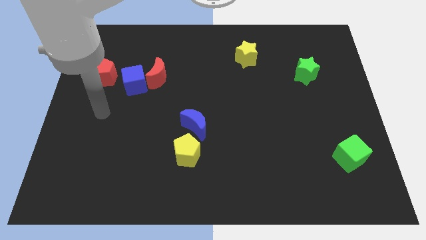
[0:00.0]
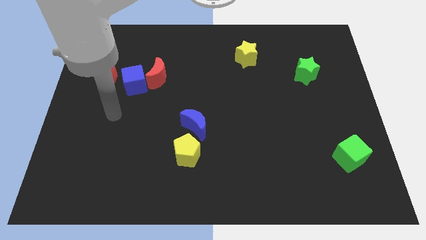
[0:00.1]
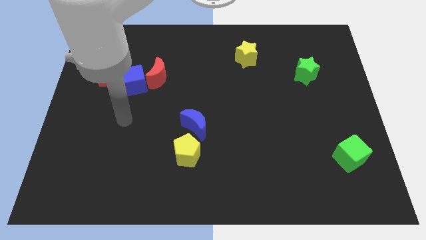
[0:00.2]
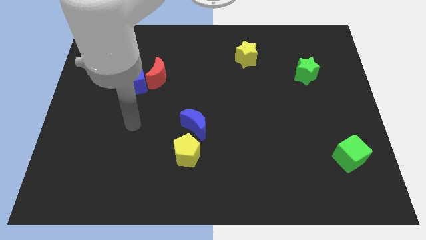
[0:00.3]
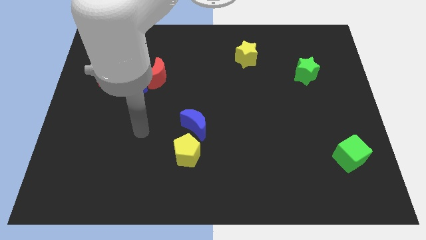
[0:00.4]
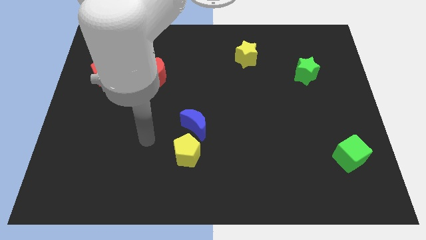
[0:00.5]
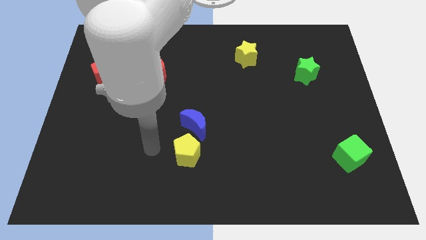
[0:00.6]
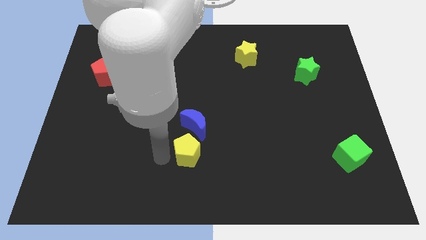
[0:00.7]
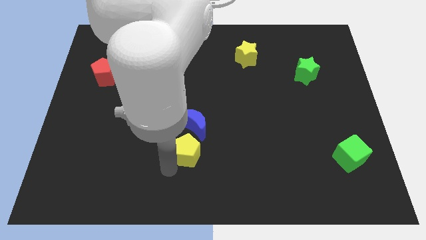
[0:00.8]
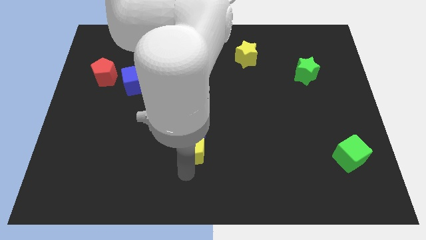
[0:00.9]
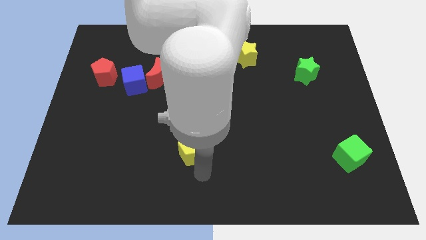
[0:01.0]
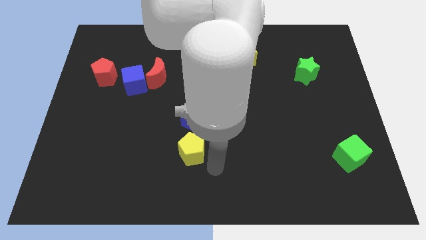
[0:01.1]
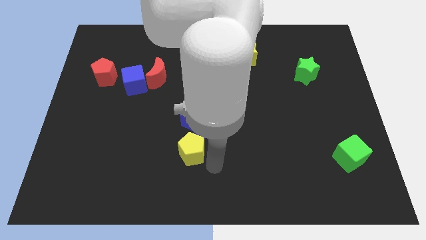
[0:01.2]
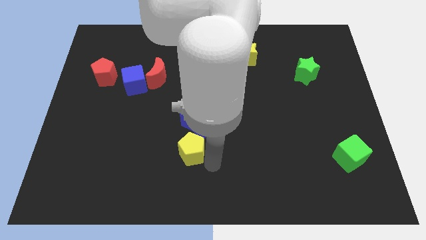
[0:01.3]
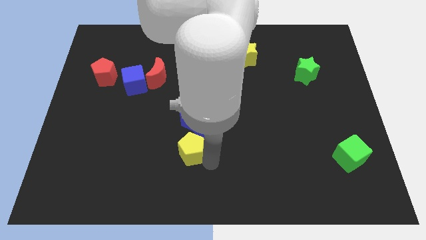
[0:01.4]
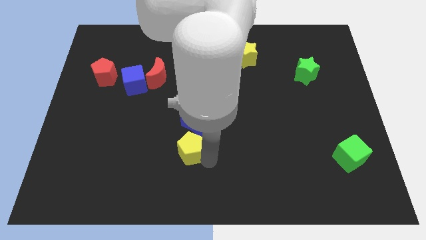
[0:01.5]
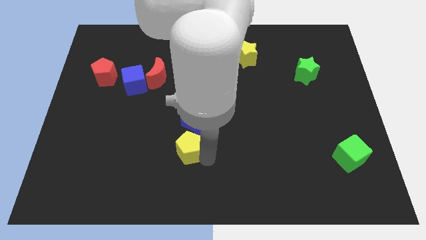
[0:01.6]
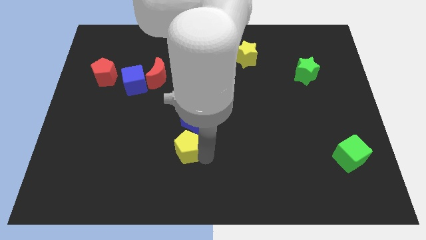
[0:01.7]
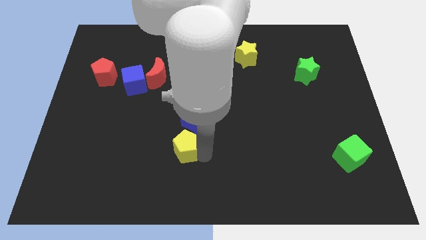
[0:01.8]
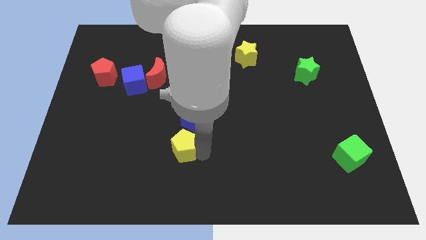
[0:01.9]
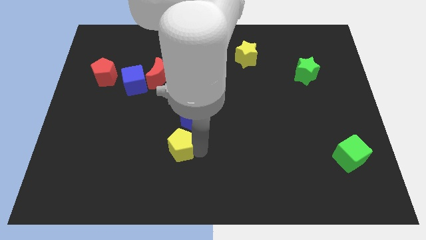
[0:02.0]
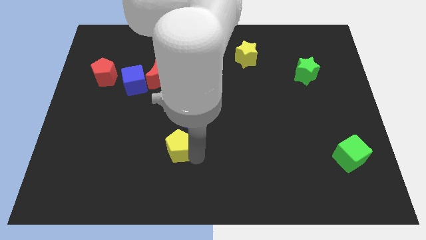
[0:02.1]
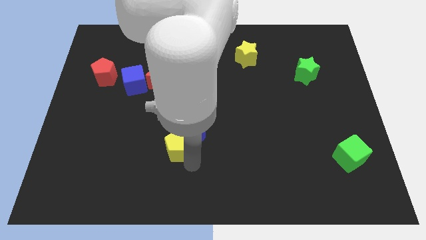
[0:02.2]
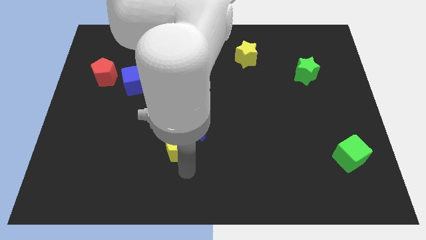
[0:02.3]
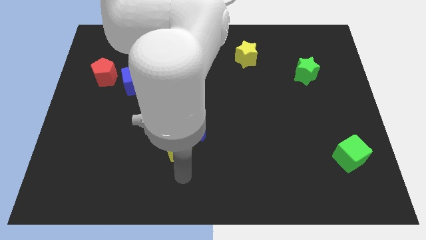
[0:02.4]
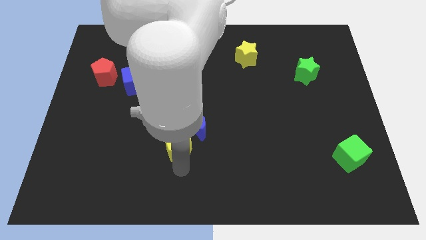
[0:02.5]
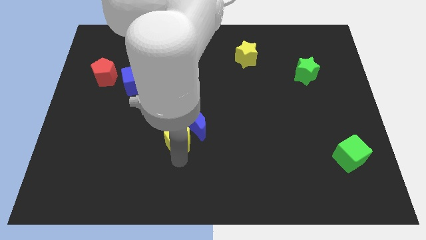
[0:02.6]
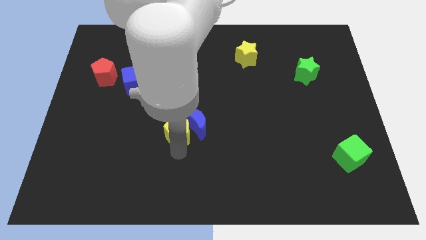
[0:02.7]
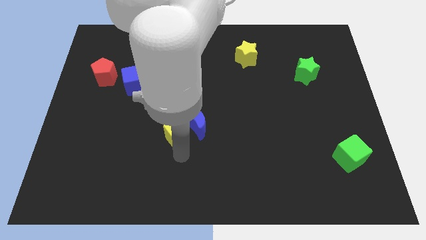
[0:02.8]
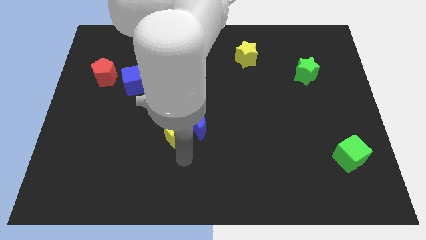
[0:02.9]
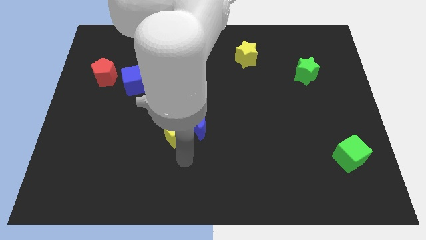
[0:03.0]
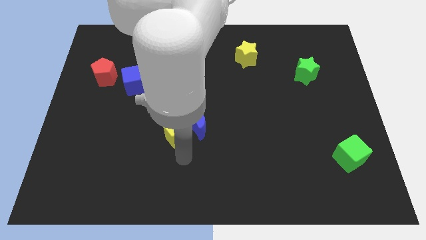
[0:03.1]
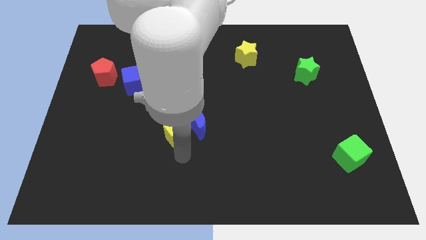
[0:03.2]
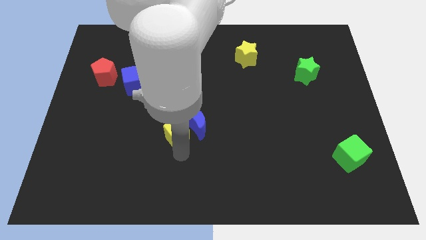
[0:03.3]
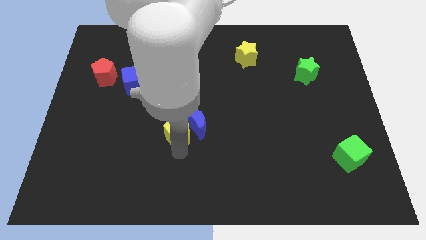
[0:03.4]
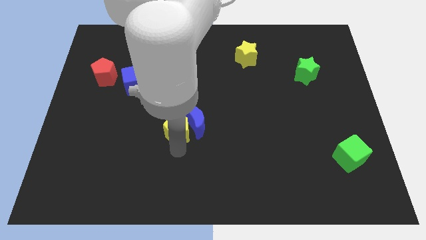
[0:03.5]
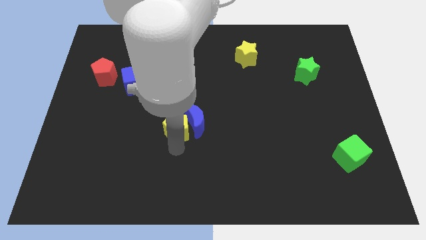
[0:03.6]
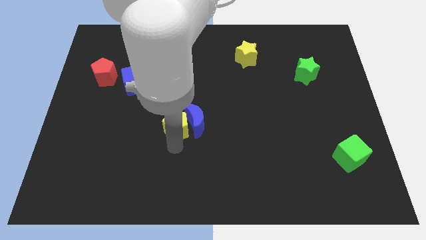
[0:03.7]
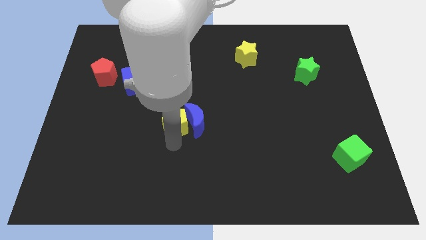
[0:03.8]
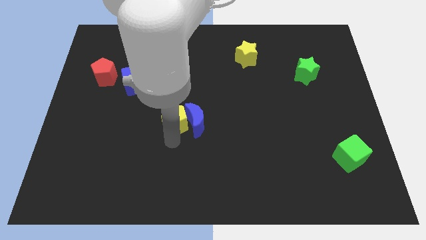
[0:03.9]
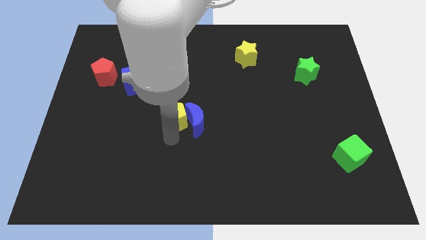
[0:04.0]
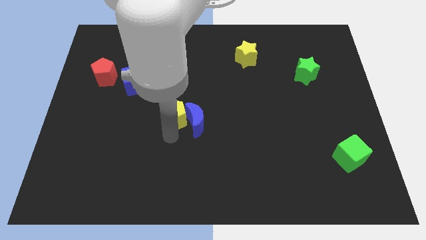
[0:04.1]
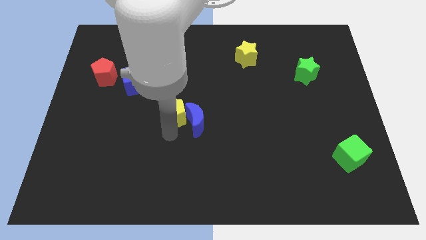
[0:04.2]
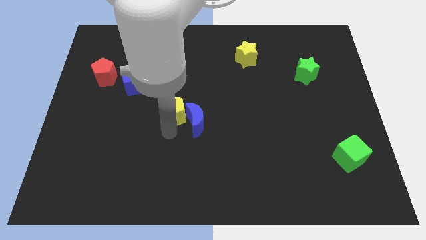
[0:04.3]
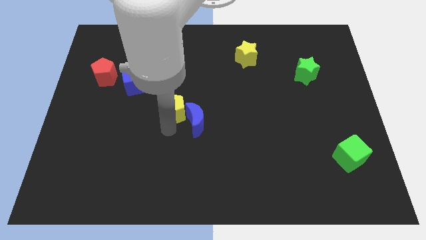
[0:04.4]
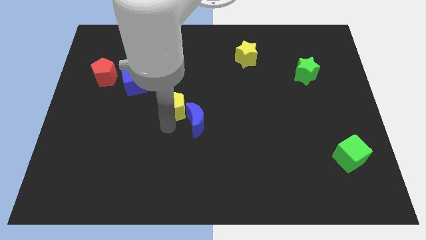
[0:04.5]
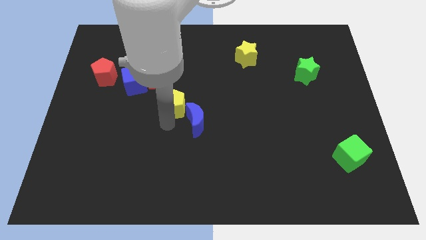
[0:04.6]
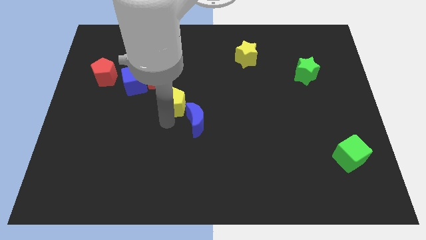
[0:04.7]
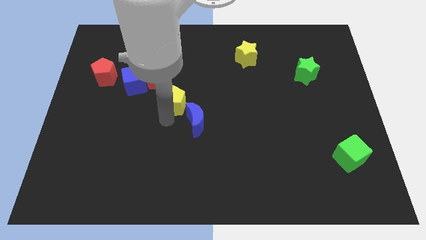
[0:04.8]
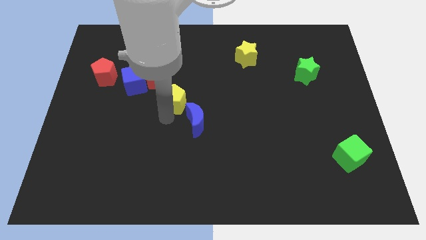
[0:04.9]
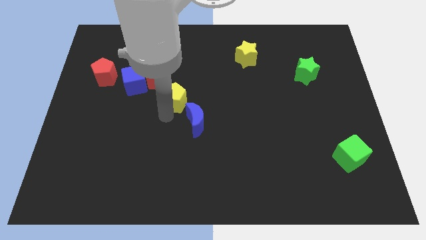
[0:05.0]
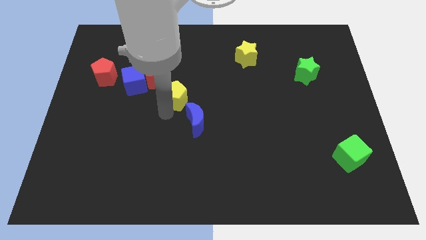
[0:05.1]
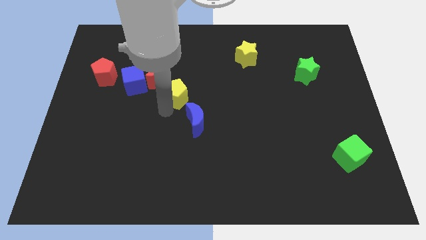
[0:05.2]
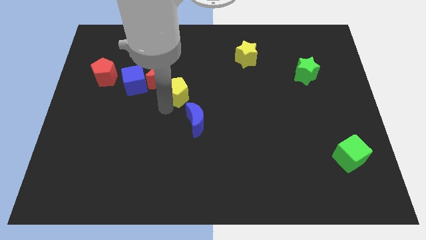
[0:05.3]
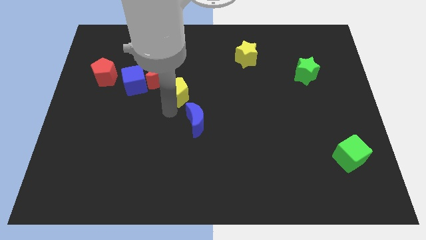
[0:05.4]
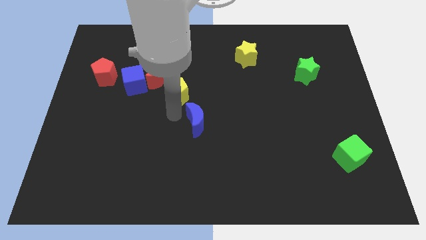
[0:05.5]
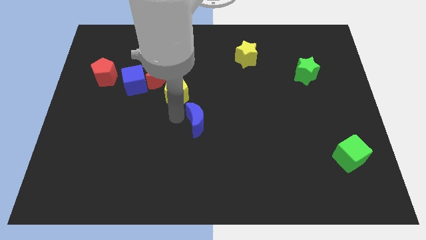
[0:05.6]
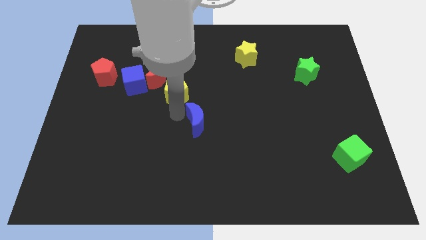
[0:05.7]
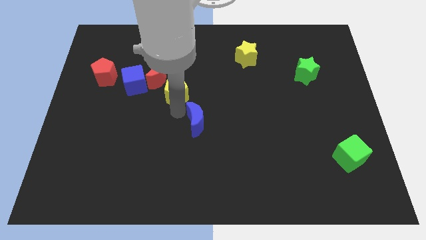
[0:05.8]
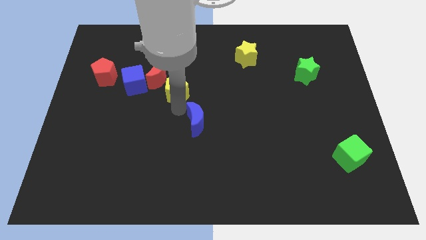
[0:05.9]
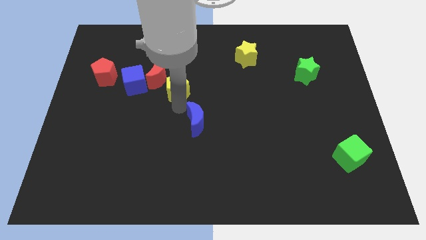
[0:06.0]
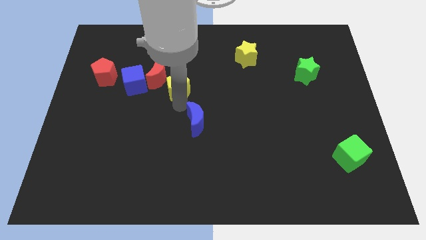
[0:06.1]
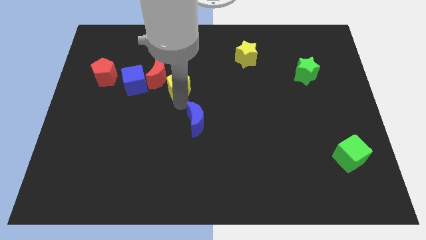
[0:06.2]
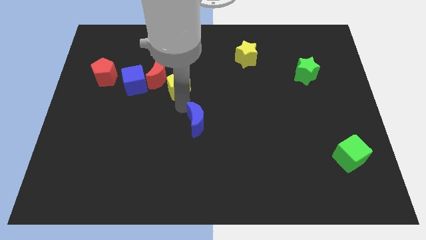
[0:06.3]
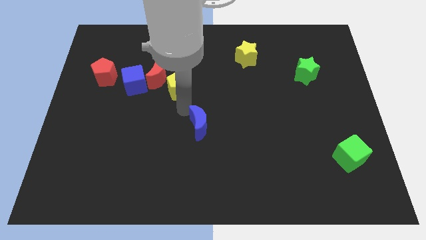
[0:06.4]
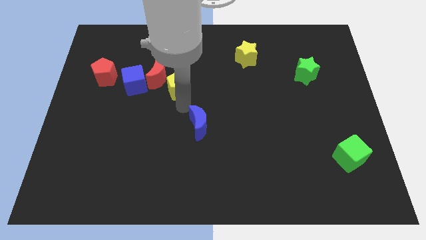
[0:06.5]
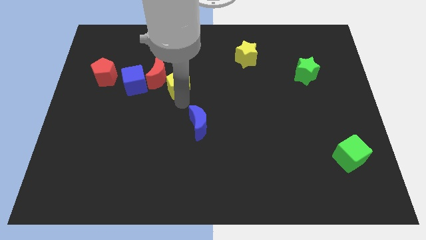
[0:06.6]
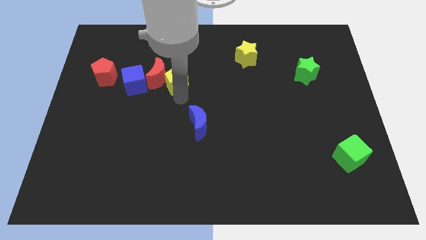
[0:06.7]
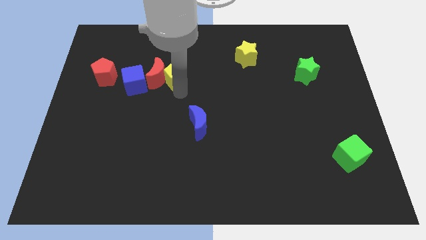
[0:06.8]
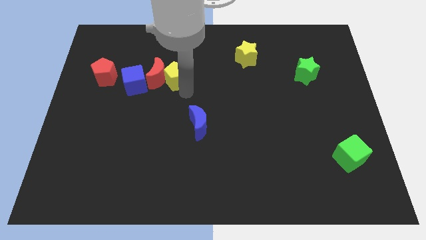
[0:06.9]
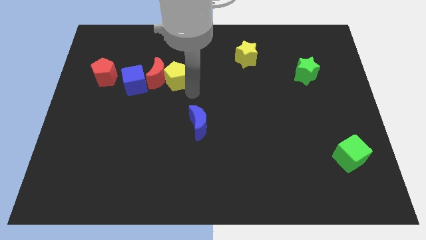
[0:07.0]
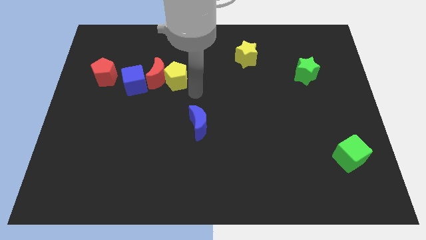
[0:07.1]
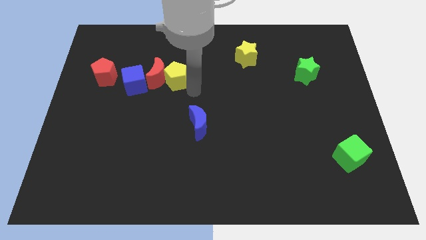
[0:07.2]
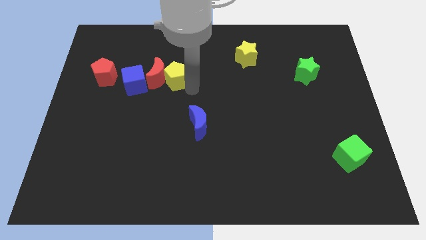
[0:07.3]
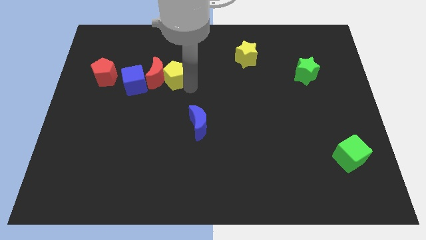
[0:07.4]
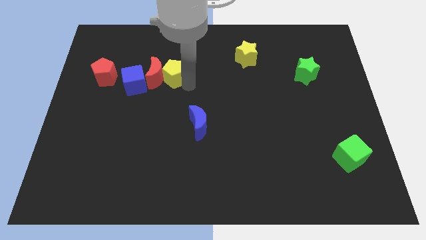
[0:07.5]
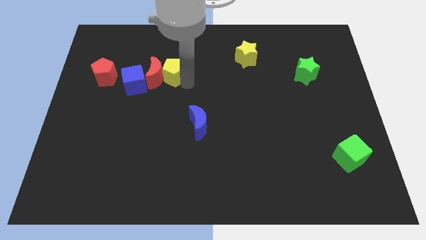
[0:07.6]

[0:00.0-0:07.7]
push the yellow pentagon to the top right of the blue cube

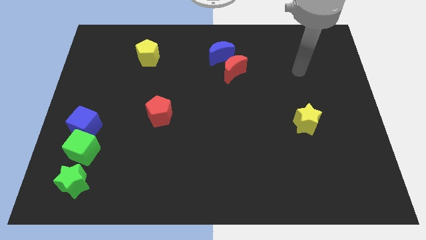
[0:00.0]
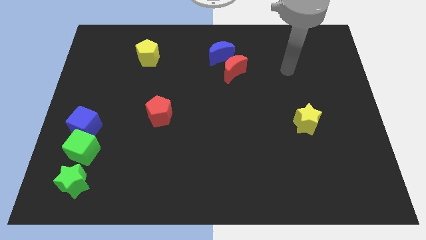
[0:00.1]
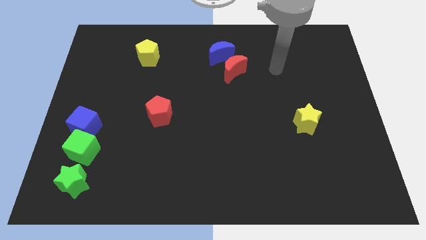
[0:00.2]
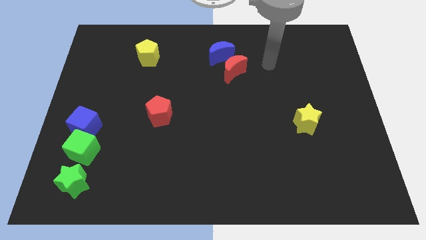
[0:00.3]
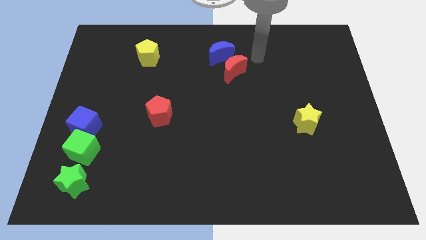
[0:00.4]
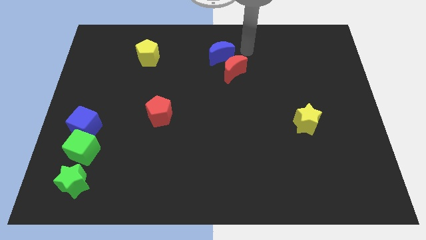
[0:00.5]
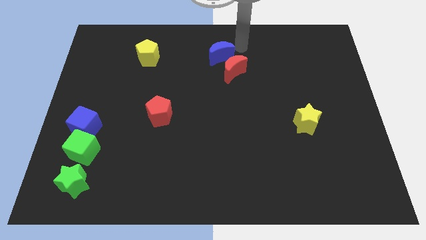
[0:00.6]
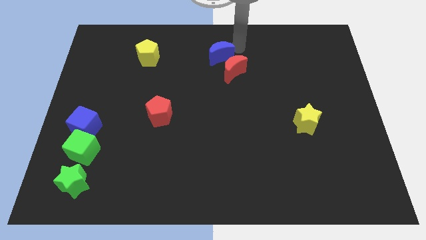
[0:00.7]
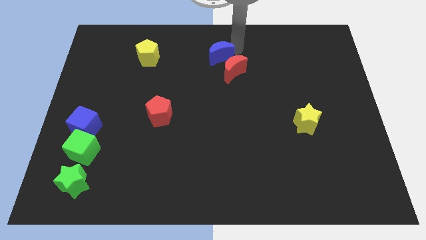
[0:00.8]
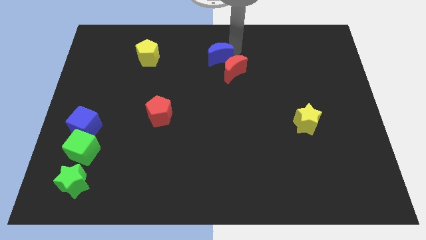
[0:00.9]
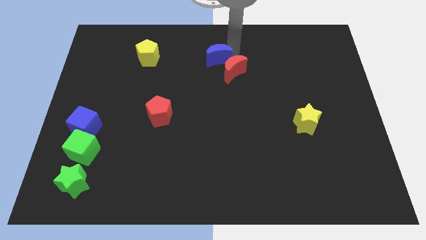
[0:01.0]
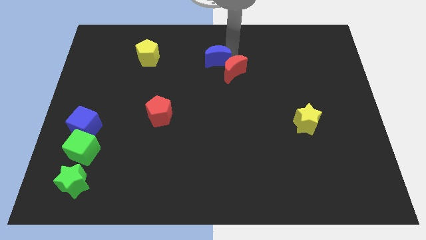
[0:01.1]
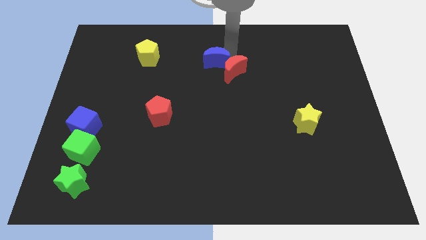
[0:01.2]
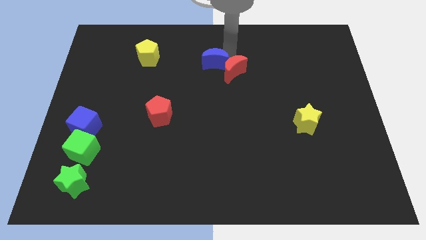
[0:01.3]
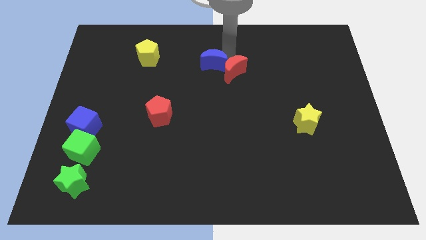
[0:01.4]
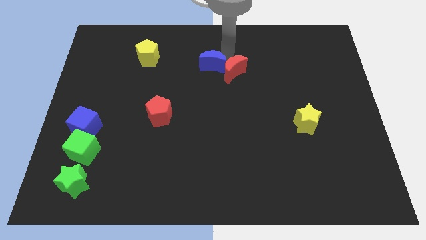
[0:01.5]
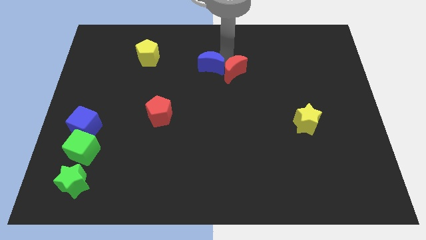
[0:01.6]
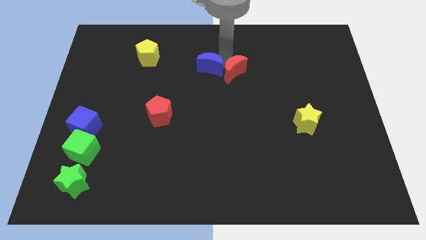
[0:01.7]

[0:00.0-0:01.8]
push the blue moon to the bottom left of the red moon
